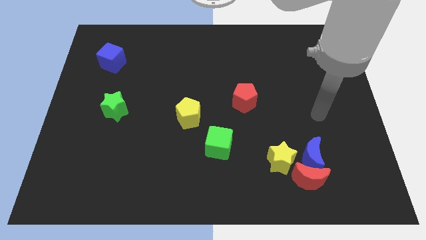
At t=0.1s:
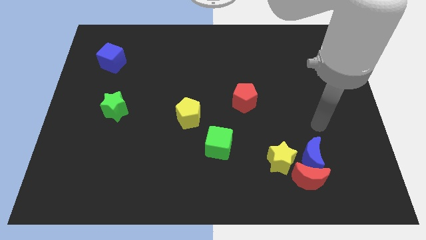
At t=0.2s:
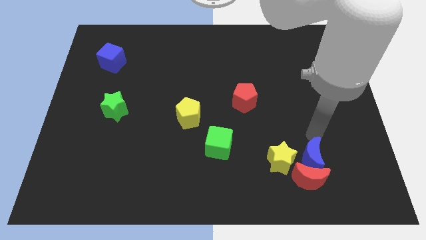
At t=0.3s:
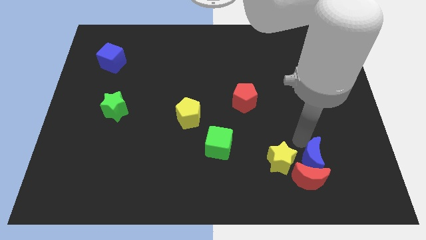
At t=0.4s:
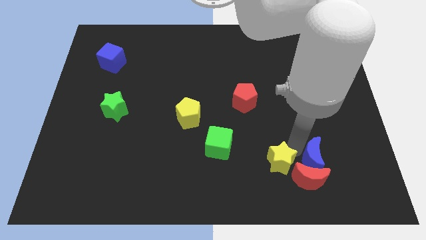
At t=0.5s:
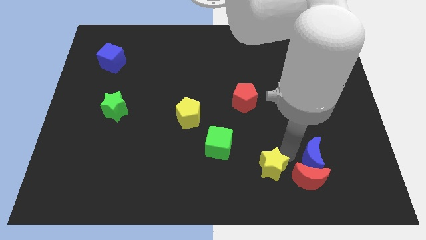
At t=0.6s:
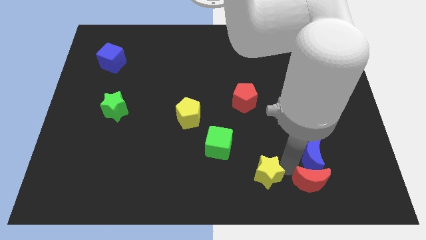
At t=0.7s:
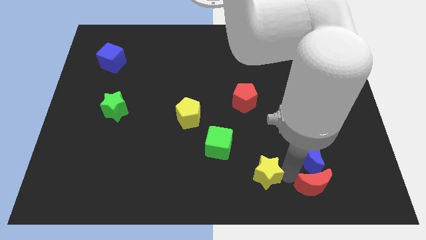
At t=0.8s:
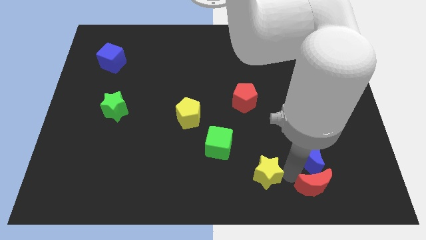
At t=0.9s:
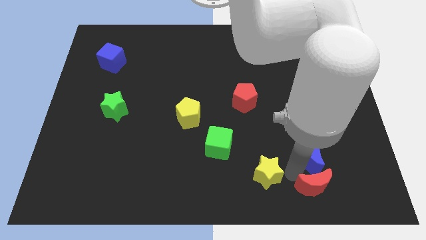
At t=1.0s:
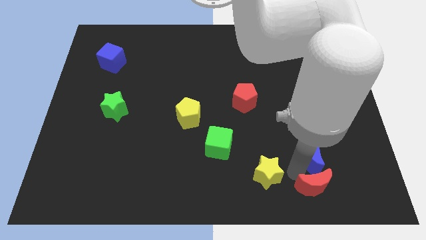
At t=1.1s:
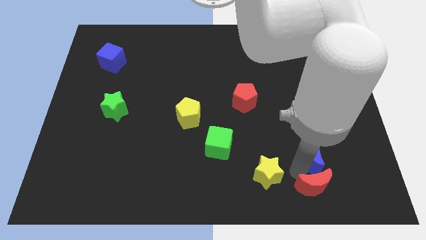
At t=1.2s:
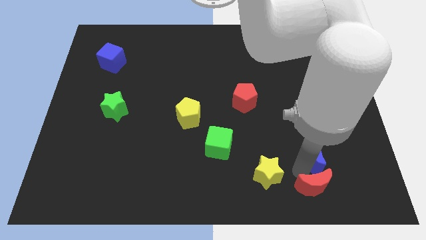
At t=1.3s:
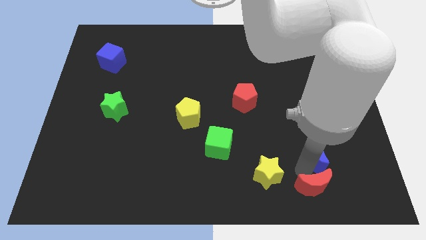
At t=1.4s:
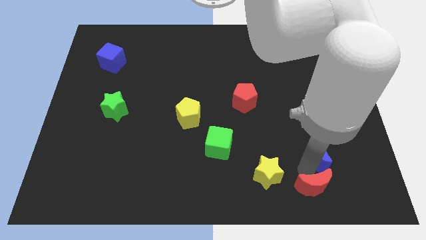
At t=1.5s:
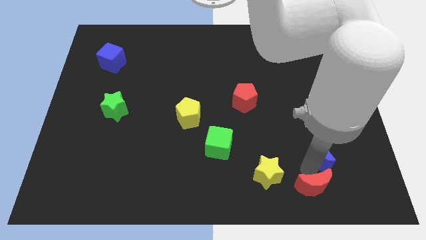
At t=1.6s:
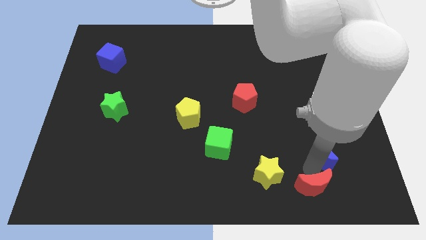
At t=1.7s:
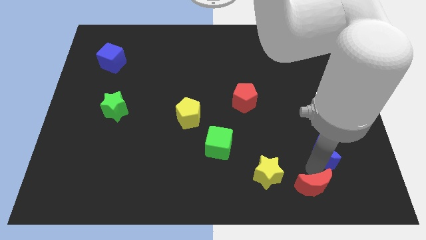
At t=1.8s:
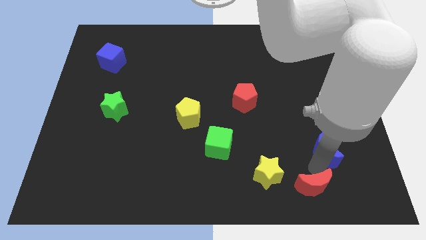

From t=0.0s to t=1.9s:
move the blue moon away from the red moon and yellow star

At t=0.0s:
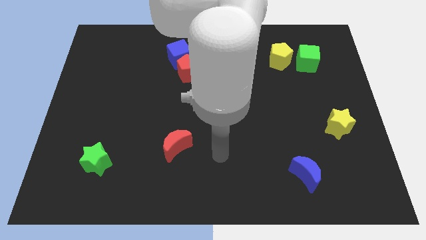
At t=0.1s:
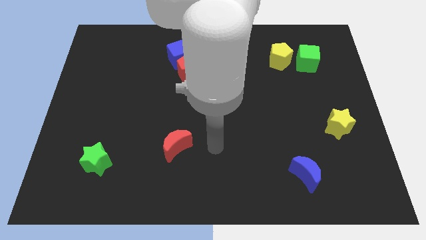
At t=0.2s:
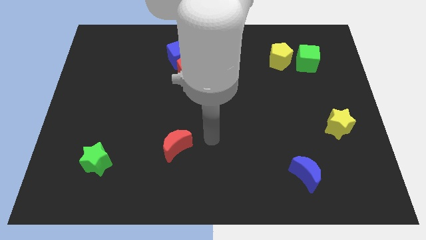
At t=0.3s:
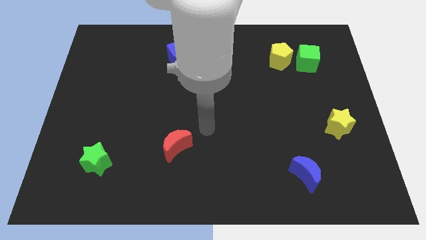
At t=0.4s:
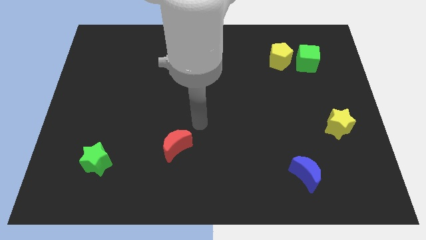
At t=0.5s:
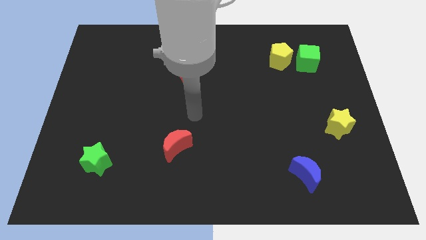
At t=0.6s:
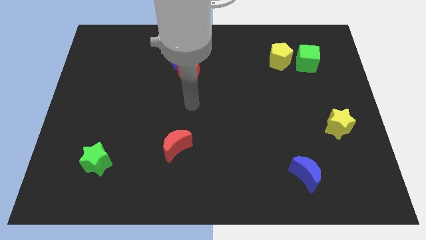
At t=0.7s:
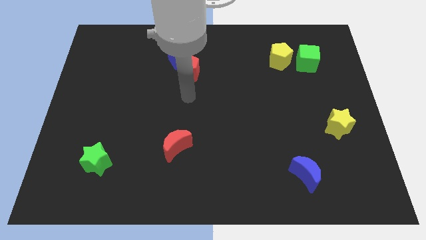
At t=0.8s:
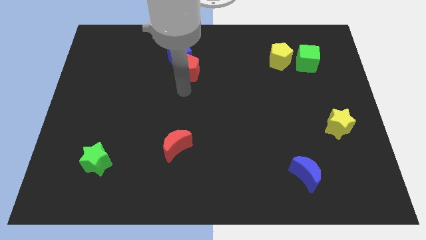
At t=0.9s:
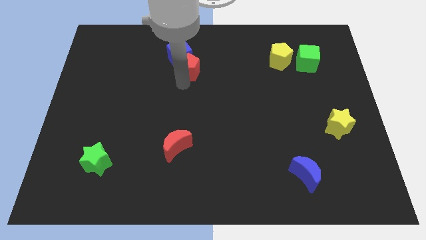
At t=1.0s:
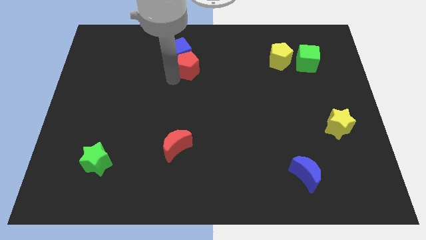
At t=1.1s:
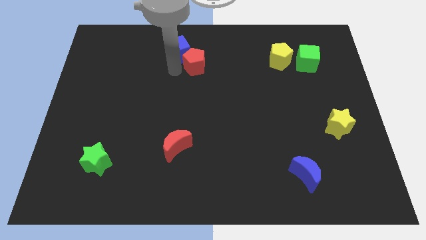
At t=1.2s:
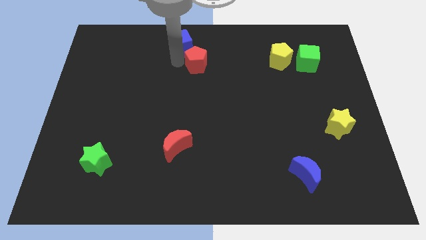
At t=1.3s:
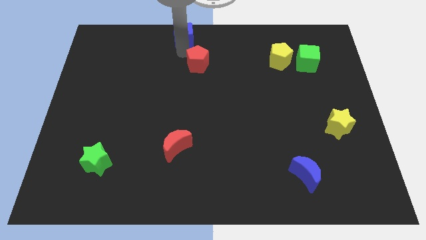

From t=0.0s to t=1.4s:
move the red pentagon away from the blue cube

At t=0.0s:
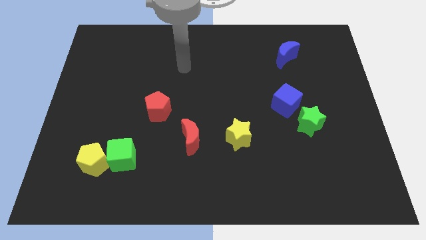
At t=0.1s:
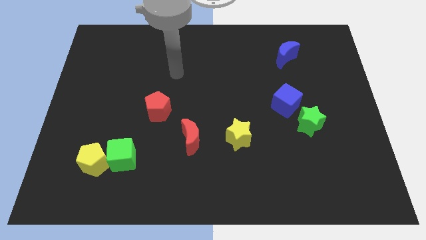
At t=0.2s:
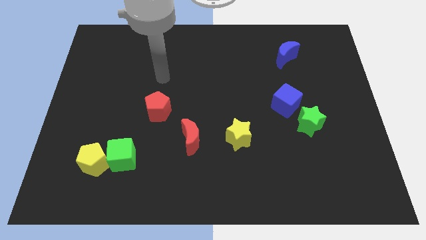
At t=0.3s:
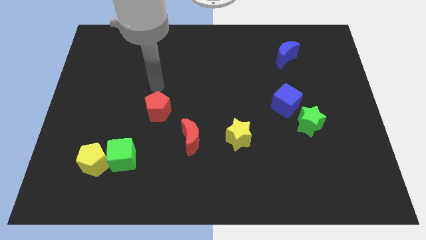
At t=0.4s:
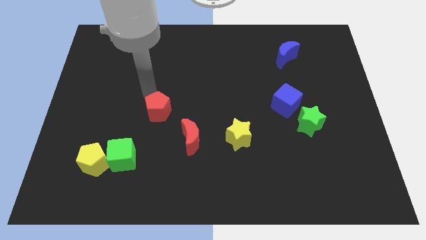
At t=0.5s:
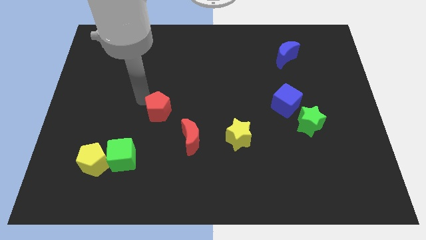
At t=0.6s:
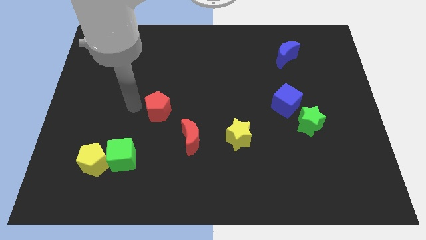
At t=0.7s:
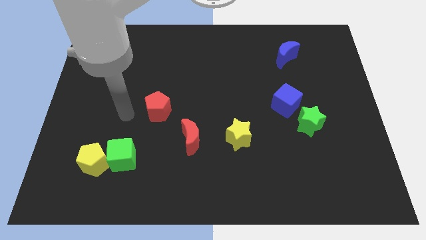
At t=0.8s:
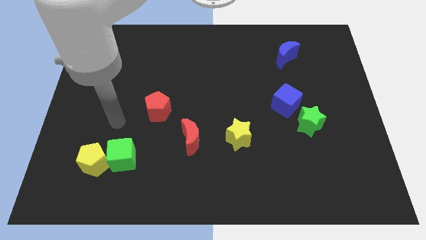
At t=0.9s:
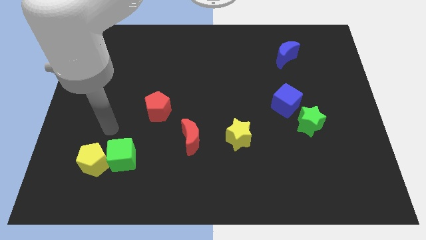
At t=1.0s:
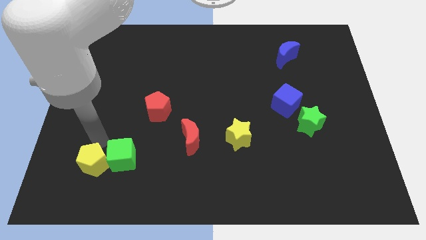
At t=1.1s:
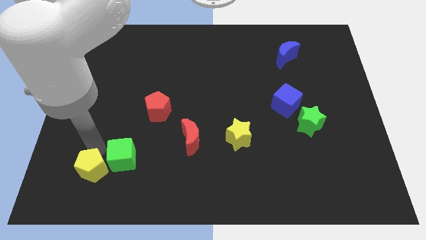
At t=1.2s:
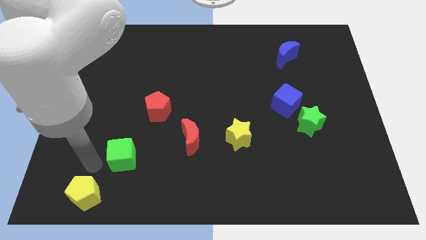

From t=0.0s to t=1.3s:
pull the green cube apart from the yellow pentagon

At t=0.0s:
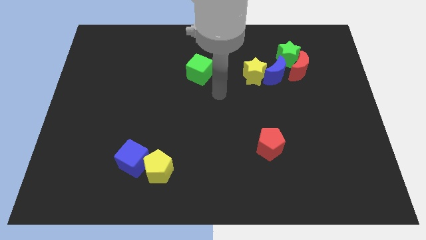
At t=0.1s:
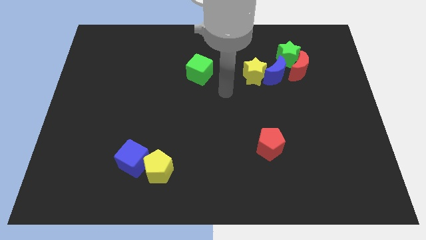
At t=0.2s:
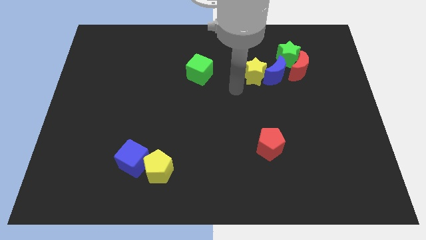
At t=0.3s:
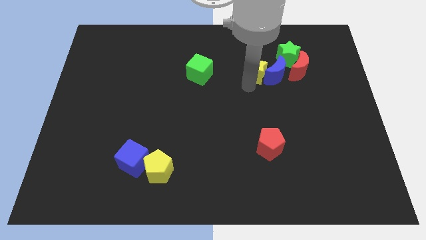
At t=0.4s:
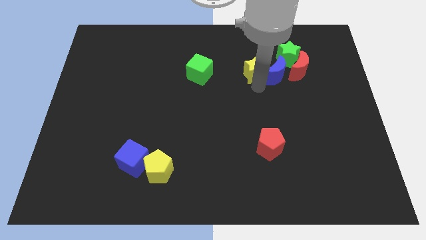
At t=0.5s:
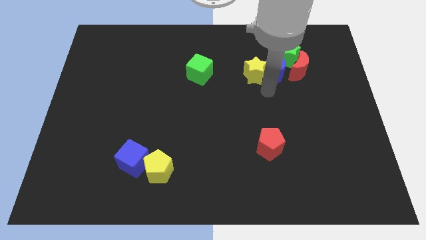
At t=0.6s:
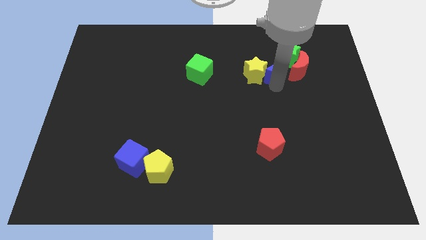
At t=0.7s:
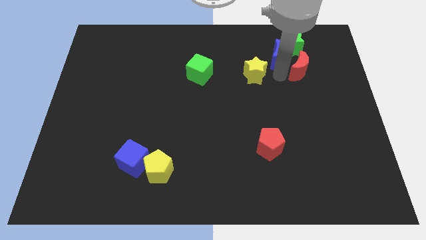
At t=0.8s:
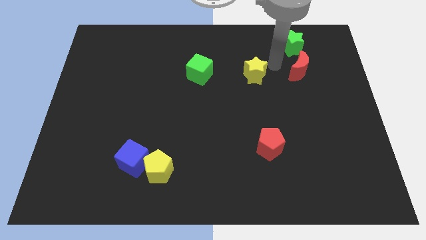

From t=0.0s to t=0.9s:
pull the yellow star apart from the blue moon

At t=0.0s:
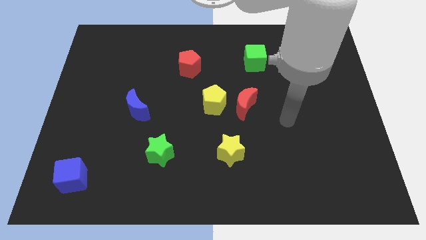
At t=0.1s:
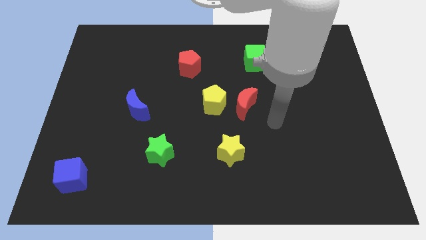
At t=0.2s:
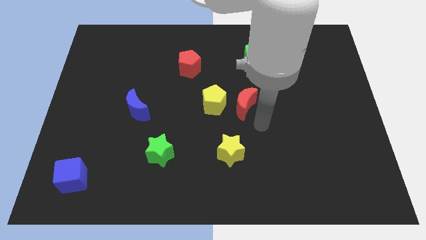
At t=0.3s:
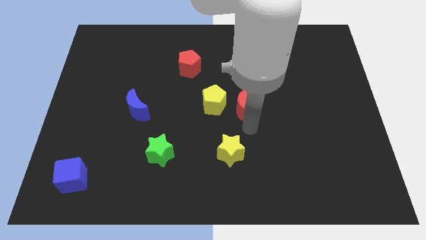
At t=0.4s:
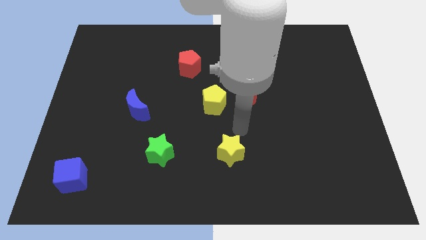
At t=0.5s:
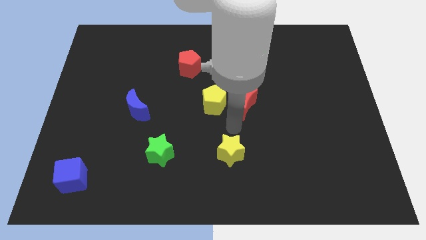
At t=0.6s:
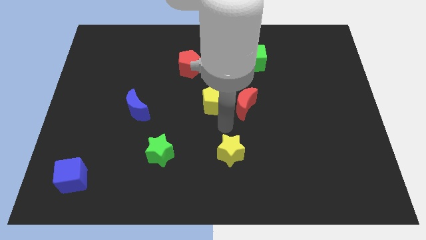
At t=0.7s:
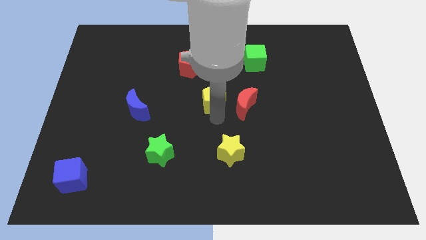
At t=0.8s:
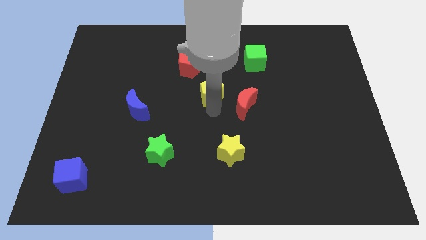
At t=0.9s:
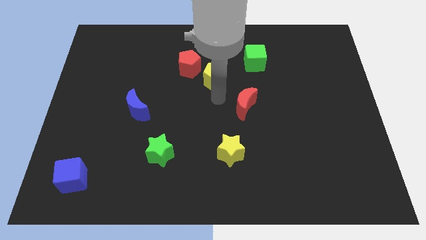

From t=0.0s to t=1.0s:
pull the red moon apart from the yellow pentagon

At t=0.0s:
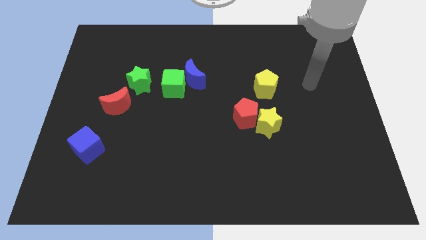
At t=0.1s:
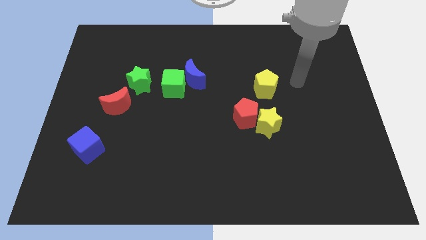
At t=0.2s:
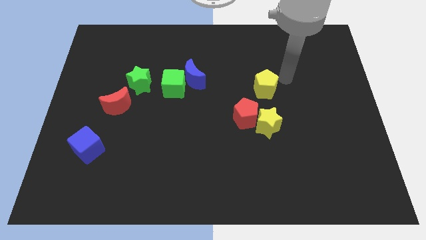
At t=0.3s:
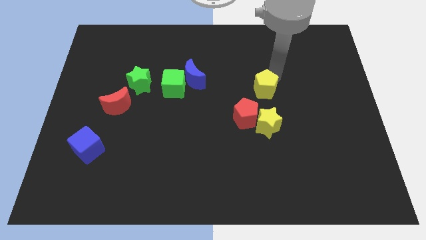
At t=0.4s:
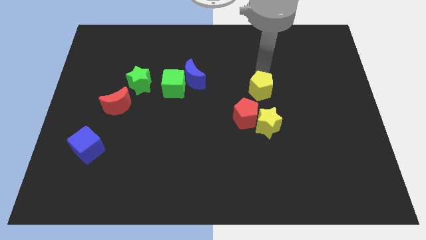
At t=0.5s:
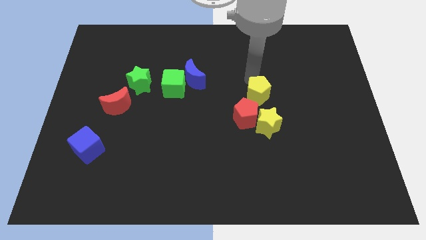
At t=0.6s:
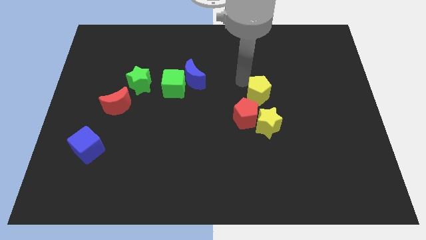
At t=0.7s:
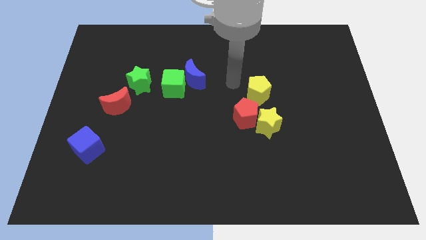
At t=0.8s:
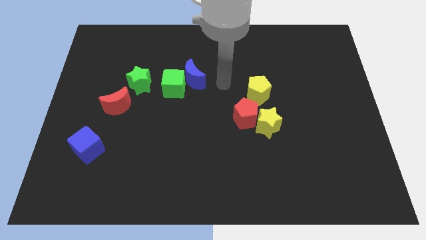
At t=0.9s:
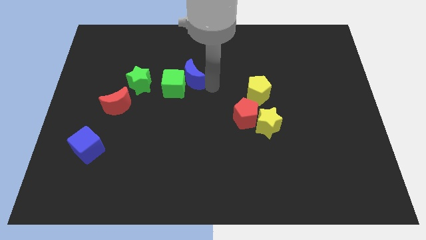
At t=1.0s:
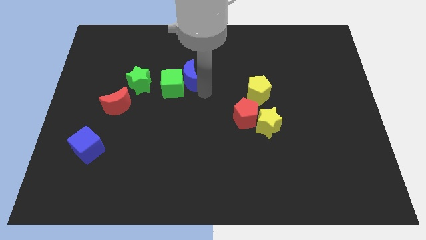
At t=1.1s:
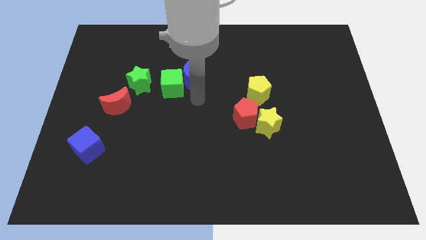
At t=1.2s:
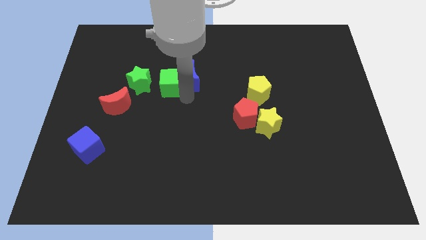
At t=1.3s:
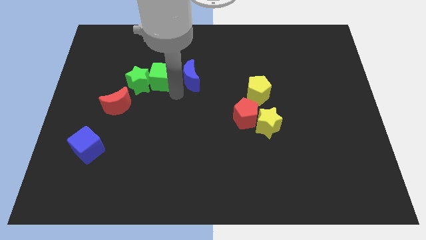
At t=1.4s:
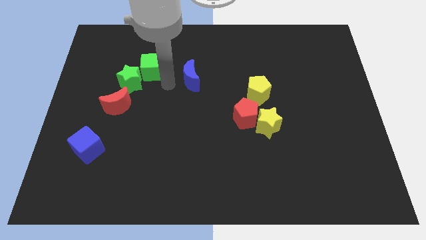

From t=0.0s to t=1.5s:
pull the blue moon apart from the green cube

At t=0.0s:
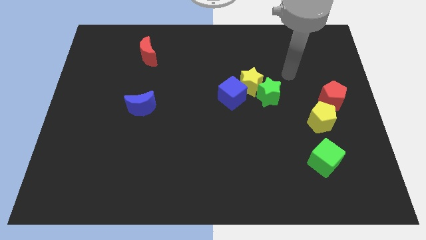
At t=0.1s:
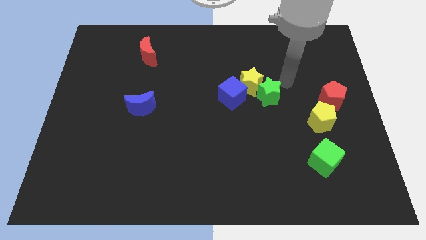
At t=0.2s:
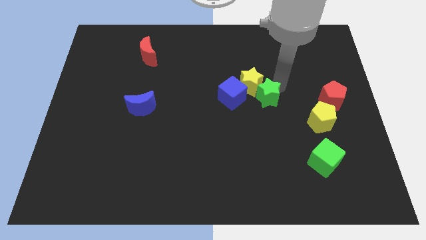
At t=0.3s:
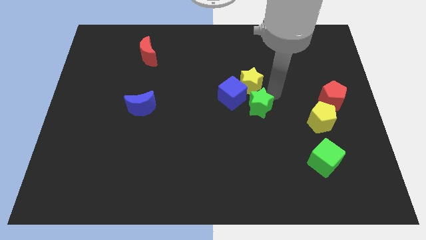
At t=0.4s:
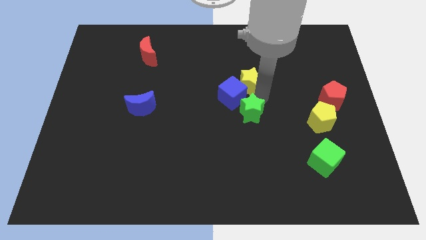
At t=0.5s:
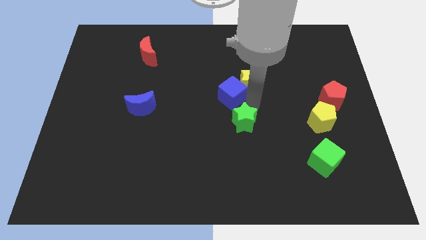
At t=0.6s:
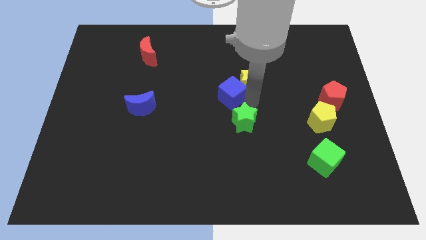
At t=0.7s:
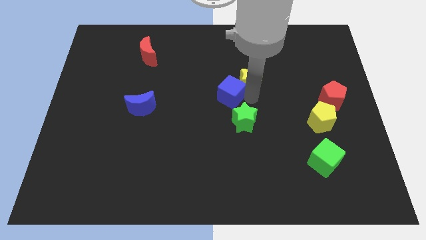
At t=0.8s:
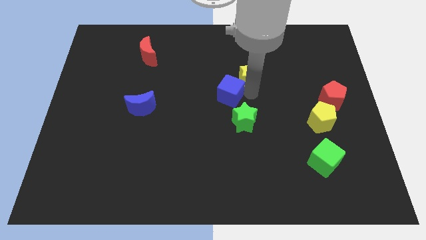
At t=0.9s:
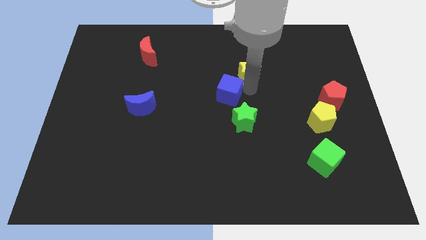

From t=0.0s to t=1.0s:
move the yellow star away from the green star and blue cube

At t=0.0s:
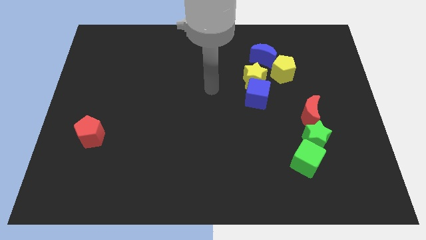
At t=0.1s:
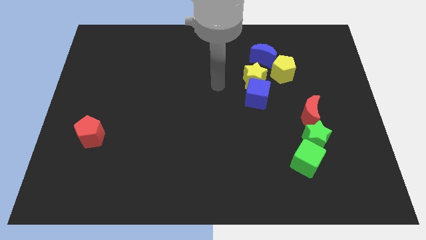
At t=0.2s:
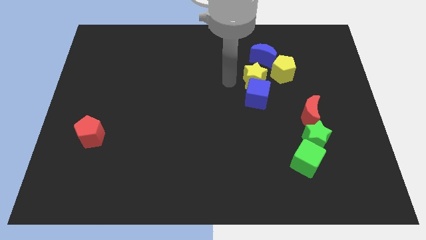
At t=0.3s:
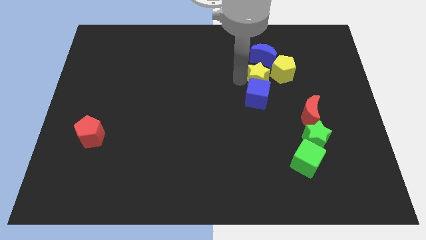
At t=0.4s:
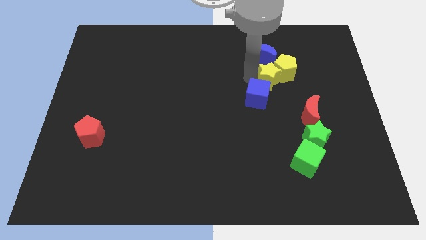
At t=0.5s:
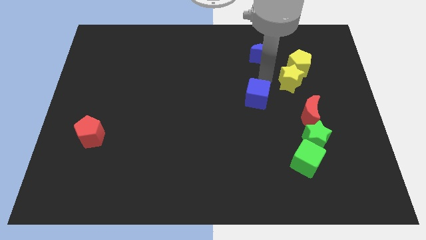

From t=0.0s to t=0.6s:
separate the blue cube from the yellow star
